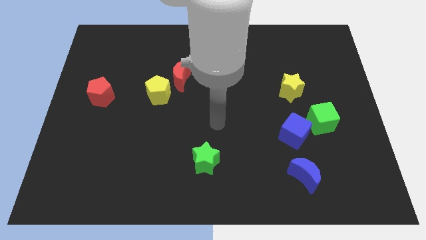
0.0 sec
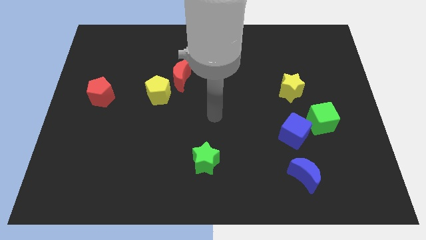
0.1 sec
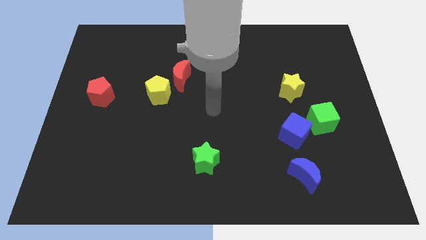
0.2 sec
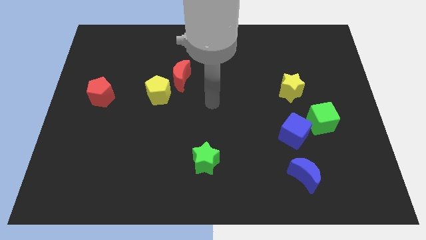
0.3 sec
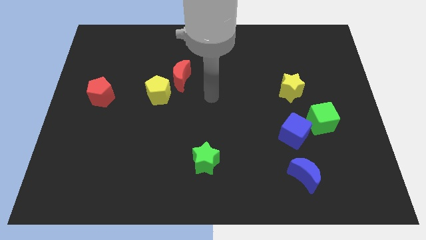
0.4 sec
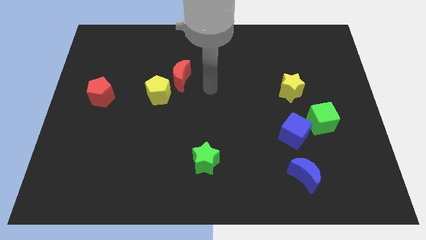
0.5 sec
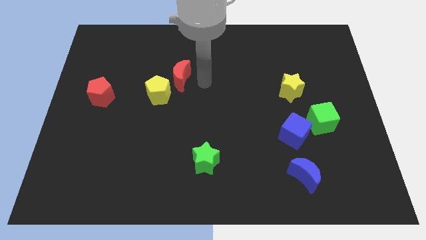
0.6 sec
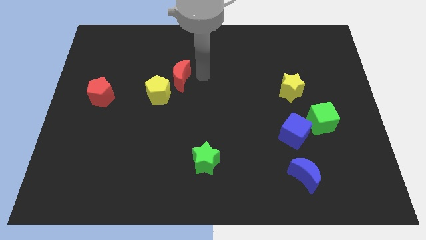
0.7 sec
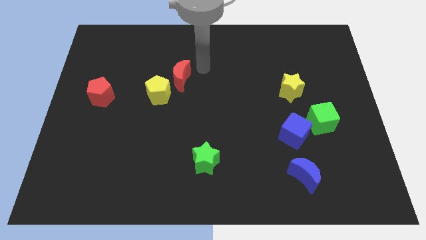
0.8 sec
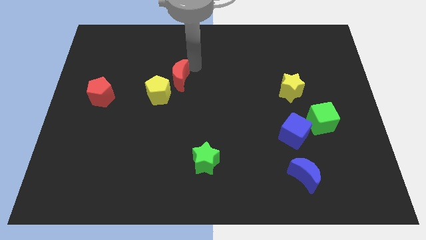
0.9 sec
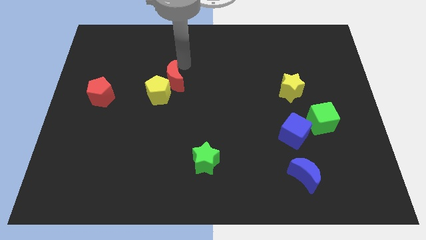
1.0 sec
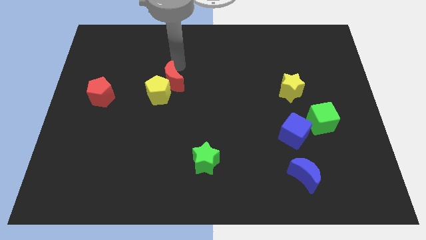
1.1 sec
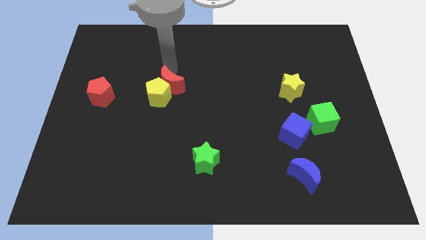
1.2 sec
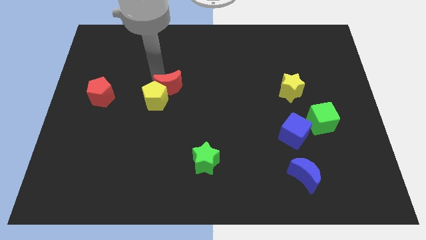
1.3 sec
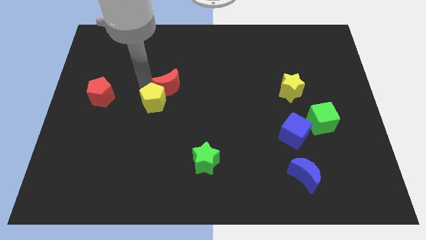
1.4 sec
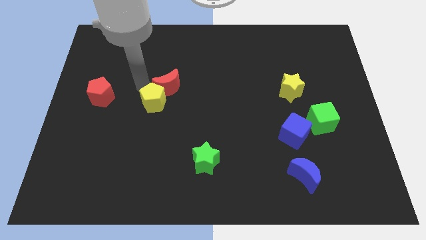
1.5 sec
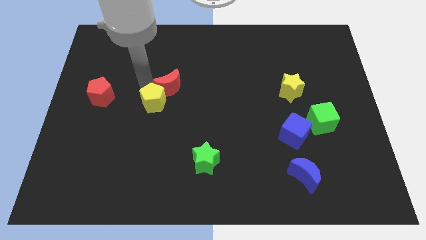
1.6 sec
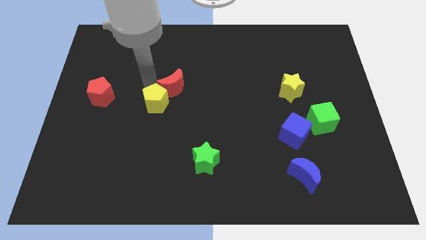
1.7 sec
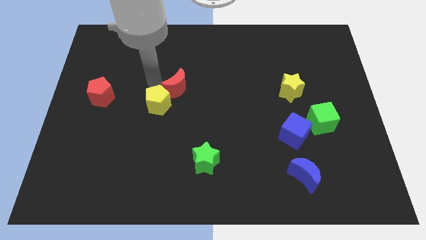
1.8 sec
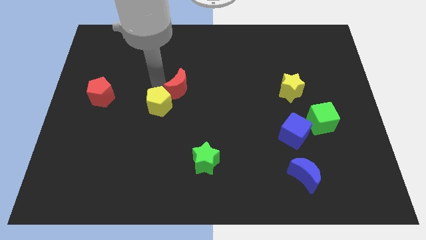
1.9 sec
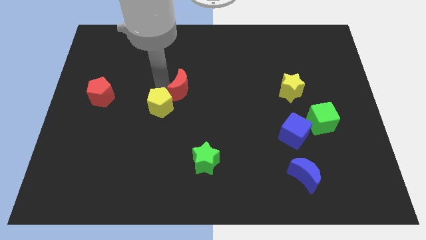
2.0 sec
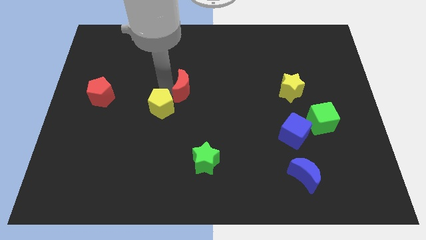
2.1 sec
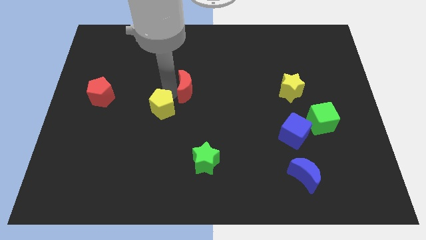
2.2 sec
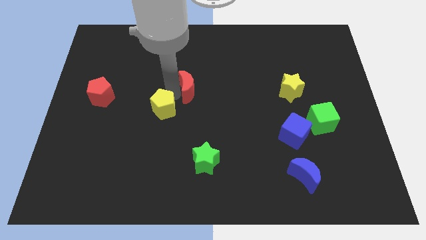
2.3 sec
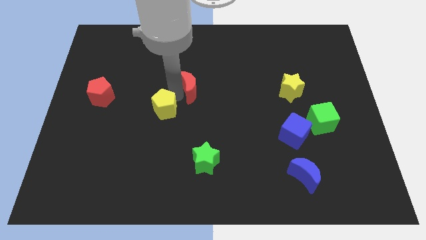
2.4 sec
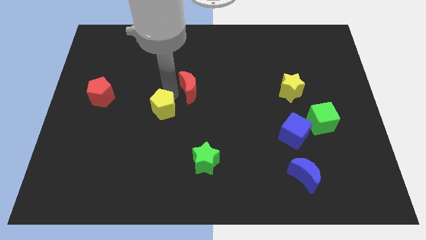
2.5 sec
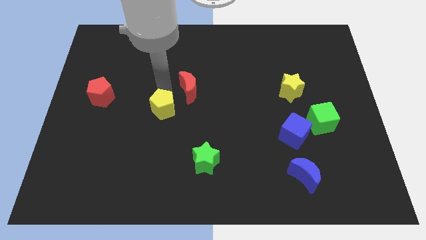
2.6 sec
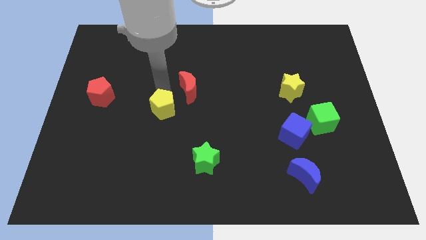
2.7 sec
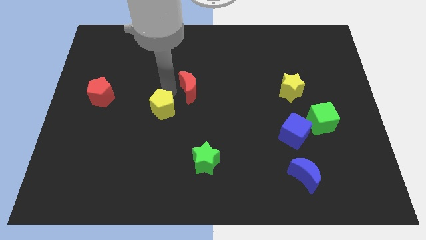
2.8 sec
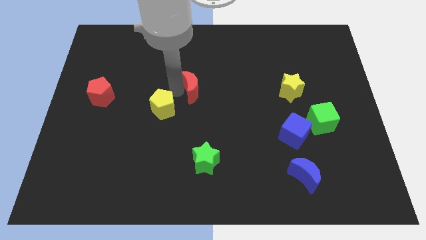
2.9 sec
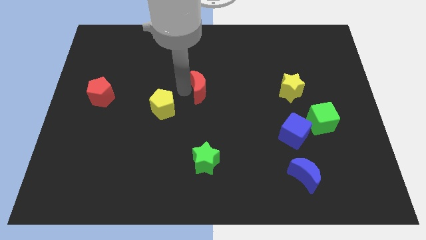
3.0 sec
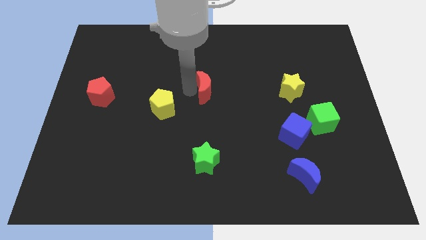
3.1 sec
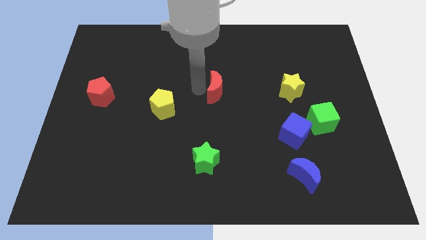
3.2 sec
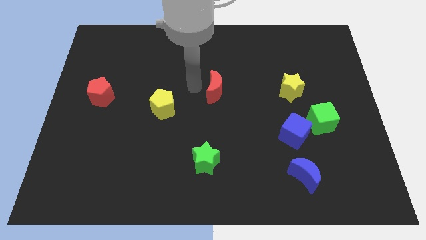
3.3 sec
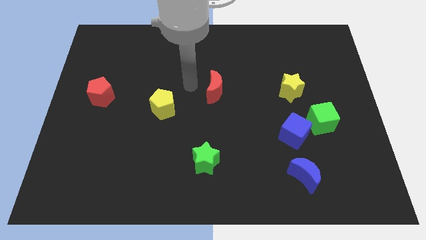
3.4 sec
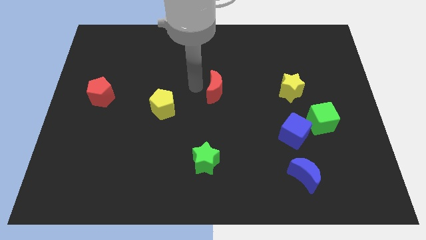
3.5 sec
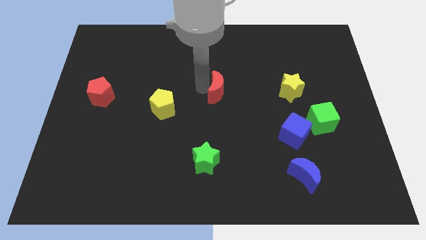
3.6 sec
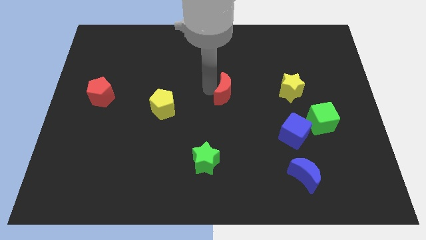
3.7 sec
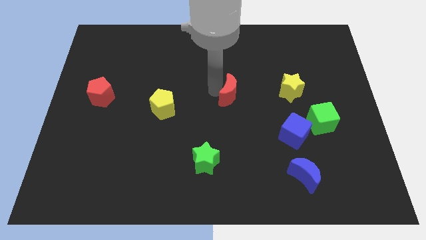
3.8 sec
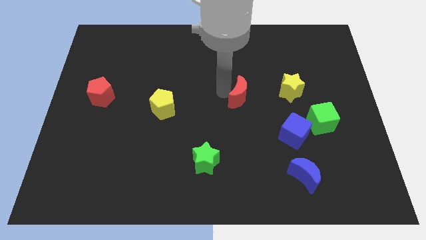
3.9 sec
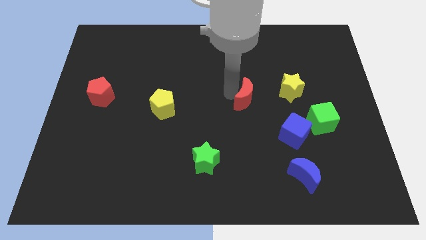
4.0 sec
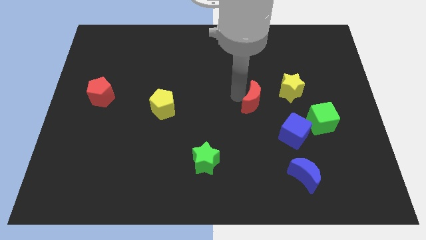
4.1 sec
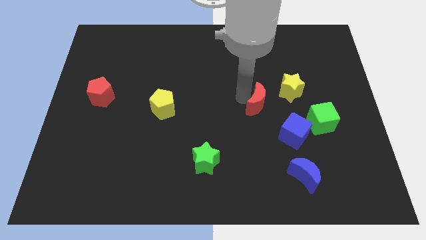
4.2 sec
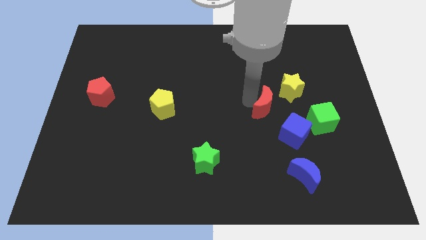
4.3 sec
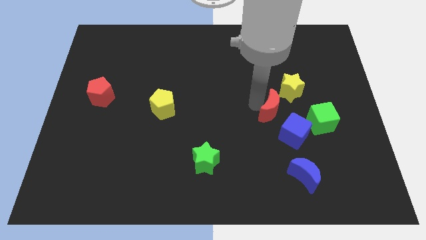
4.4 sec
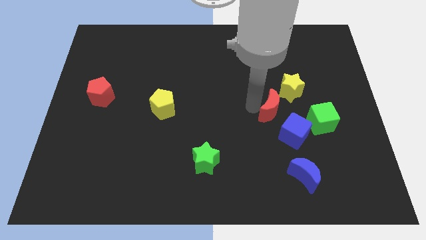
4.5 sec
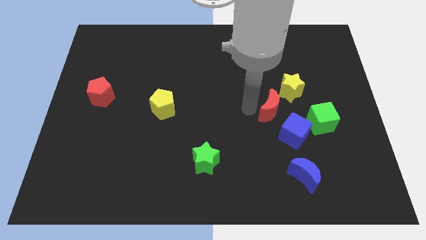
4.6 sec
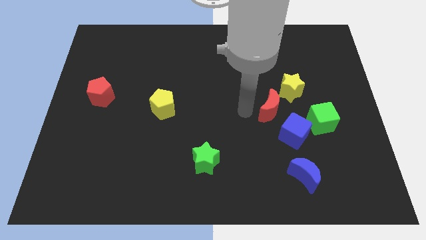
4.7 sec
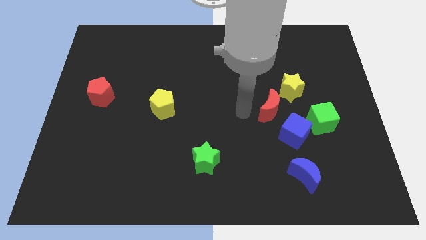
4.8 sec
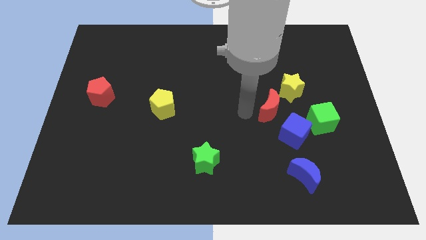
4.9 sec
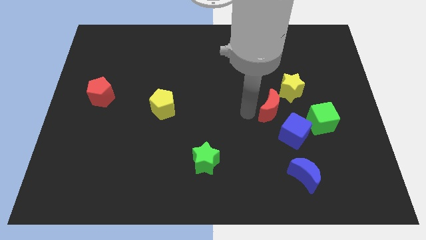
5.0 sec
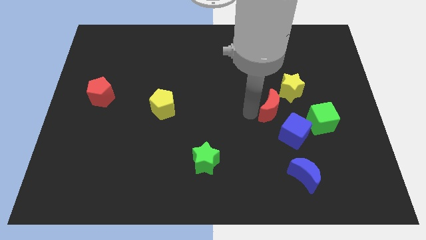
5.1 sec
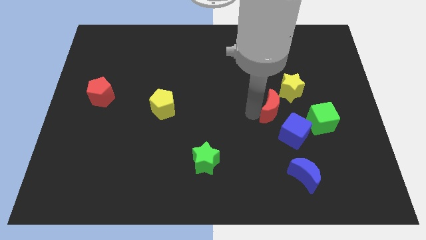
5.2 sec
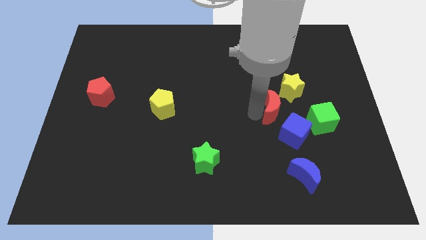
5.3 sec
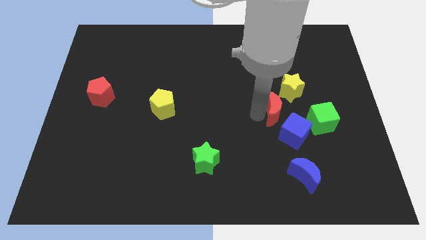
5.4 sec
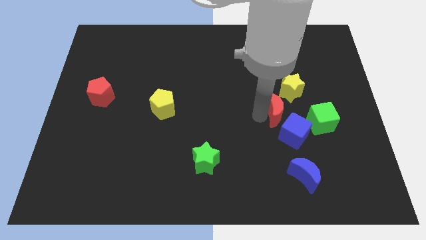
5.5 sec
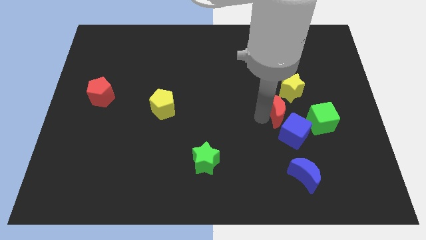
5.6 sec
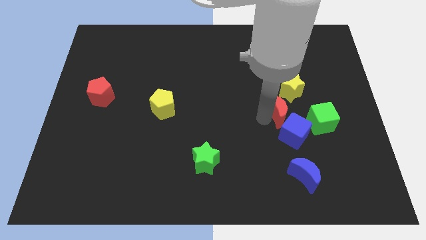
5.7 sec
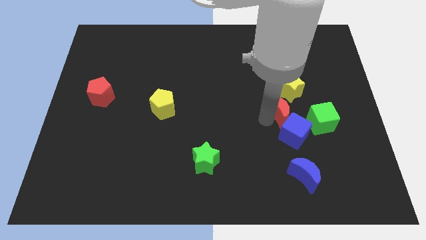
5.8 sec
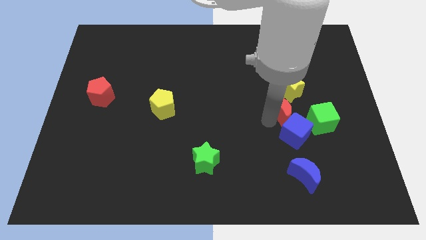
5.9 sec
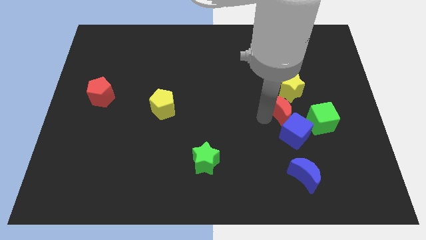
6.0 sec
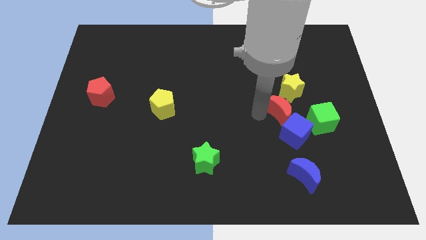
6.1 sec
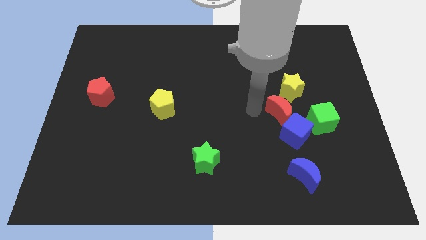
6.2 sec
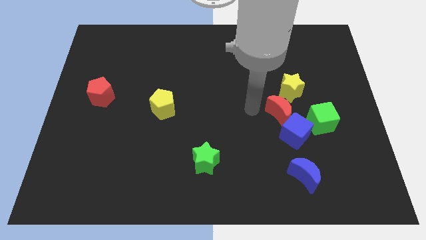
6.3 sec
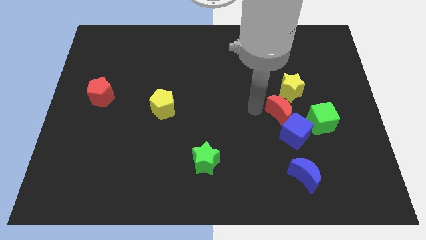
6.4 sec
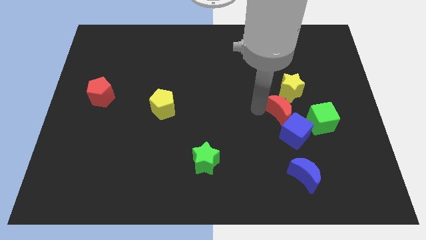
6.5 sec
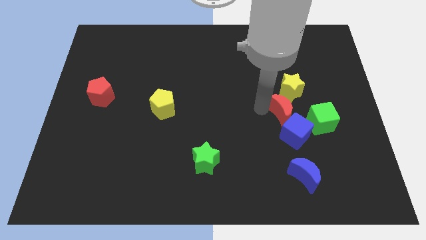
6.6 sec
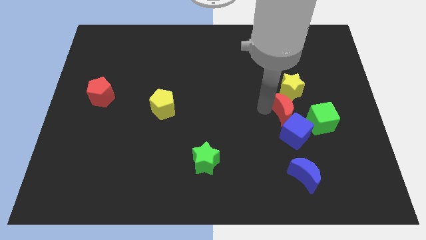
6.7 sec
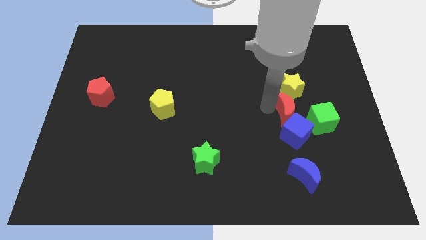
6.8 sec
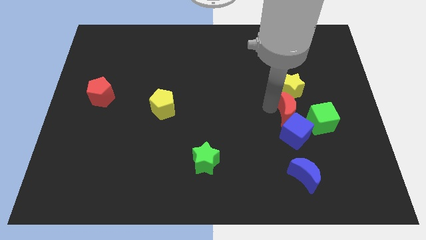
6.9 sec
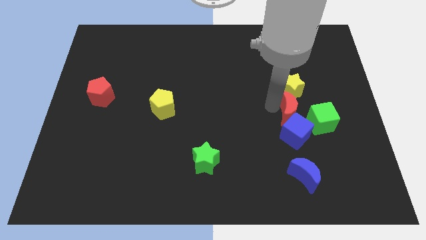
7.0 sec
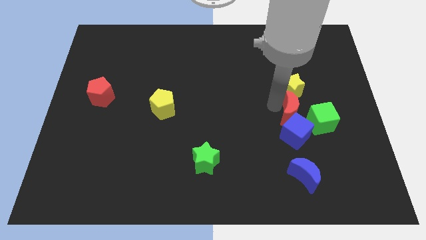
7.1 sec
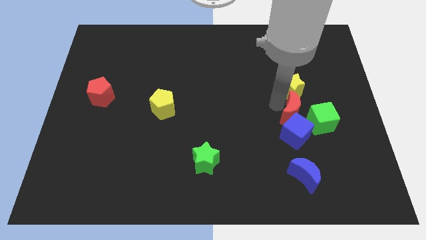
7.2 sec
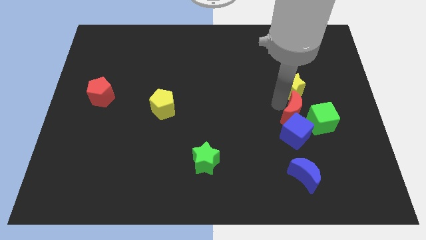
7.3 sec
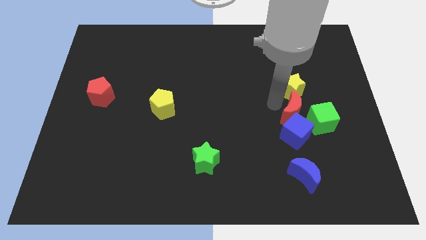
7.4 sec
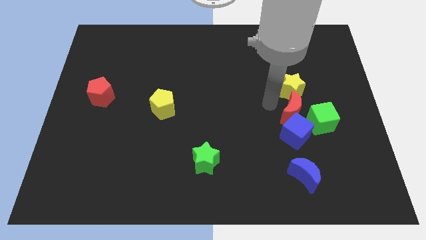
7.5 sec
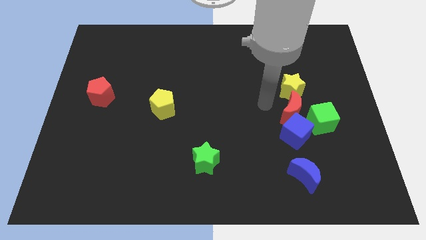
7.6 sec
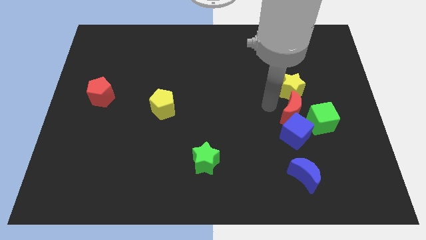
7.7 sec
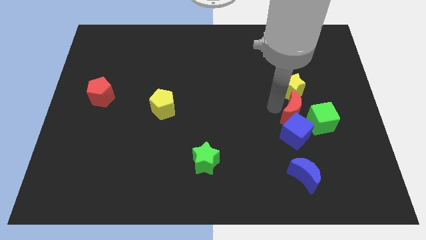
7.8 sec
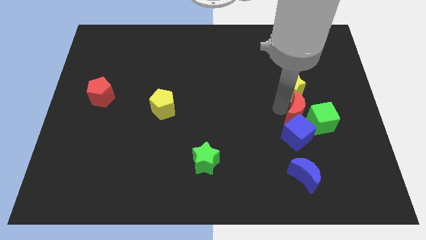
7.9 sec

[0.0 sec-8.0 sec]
slide the red moon to the green cube
